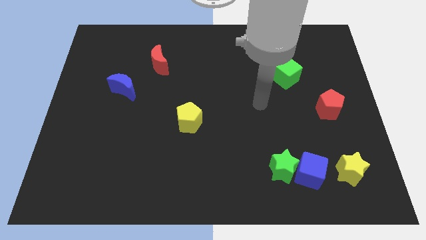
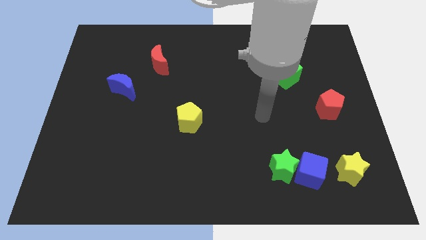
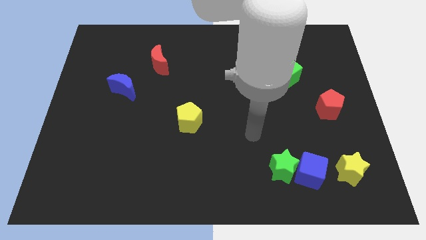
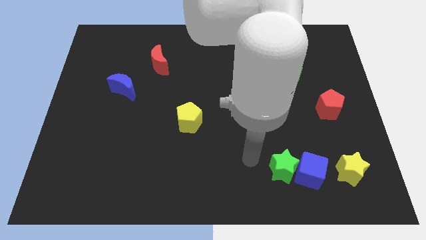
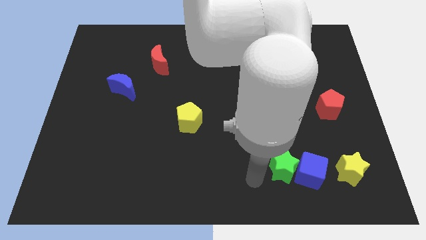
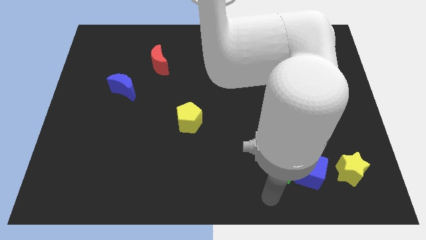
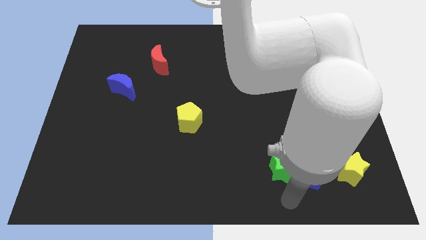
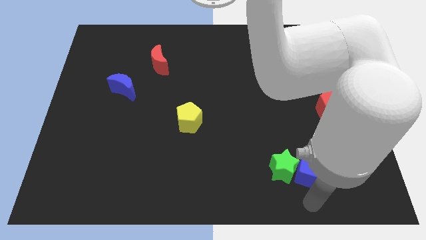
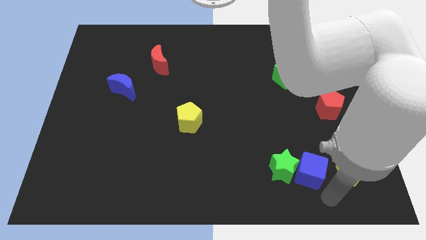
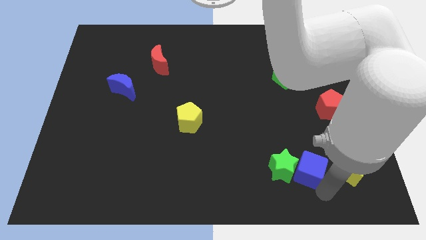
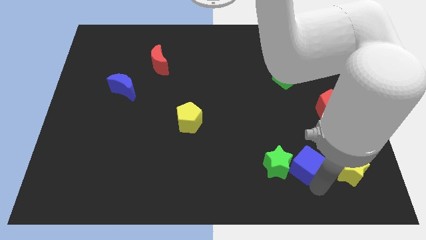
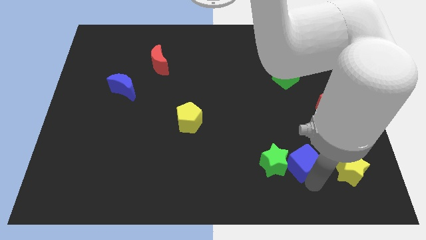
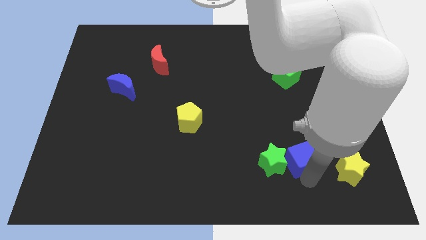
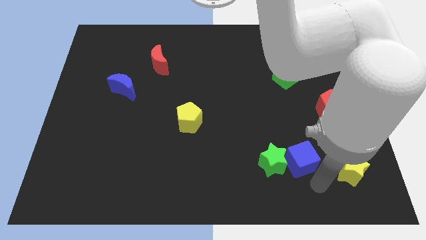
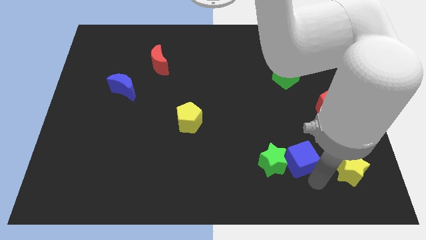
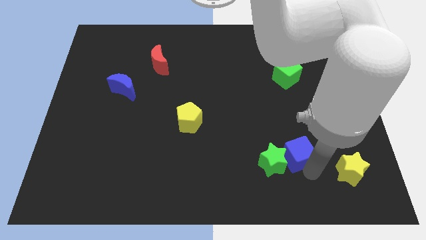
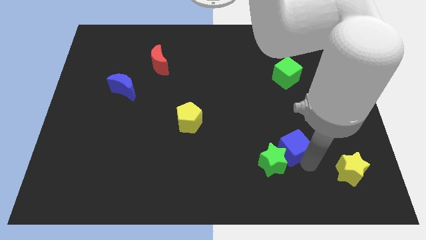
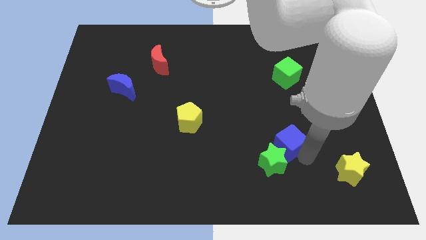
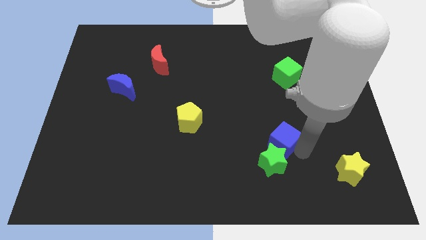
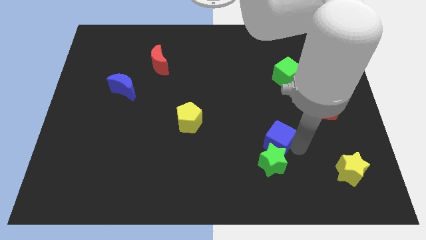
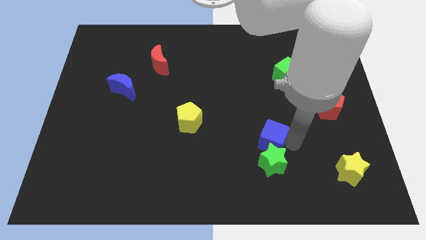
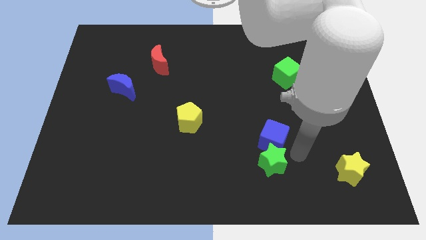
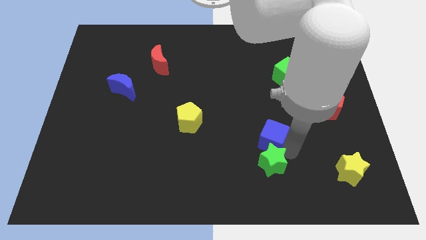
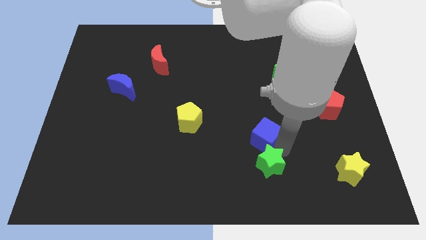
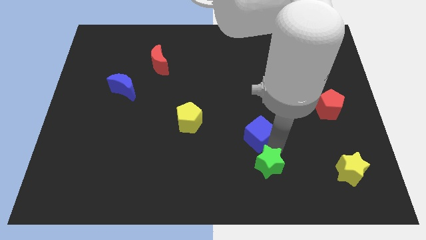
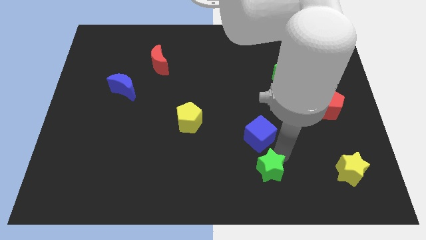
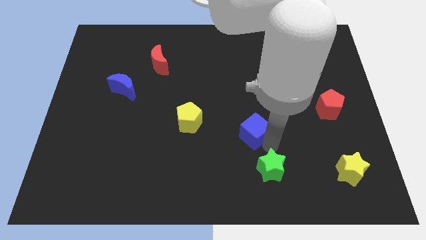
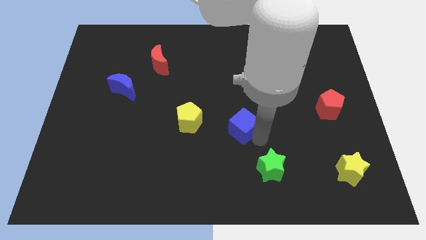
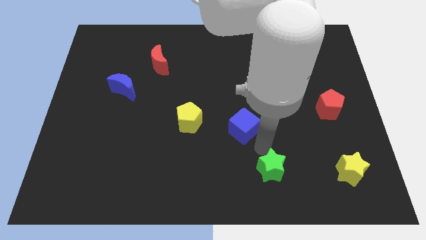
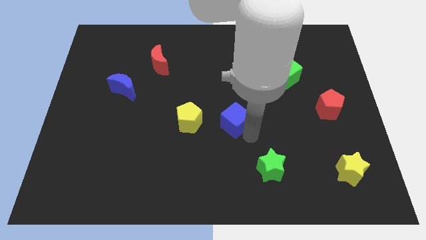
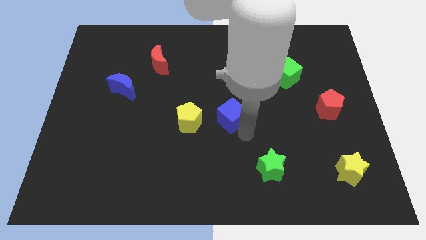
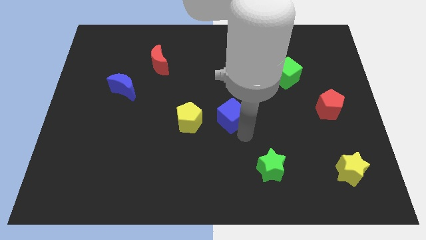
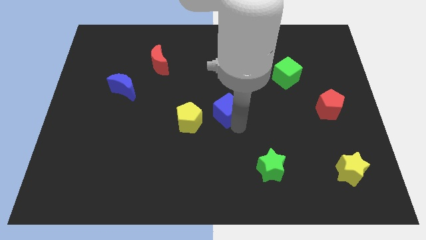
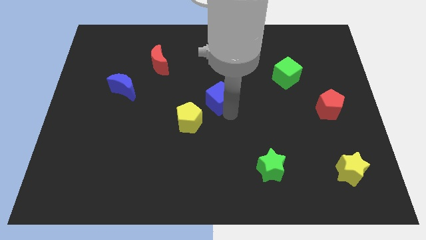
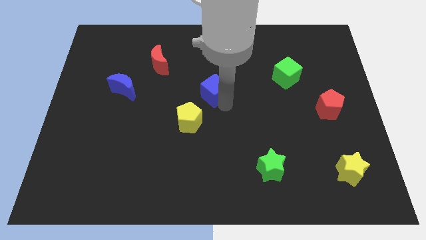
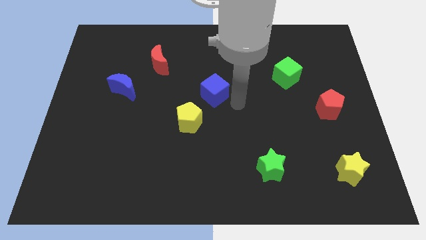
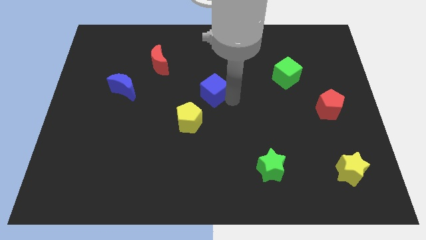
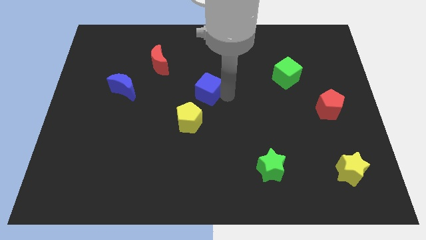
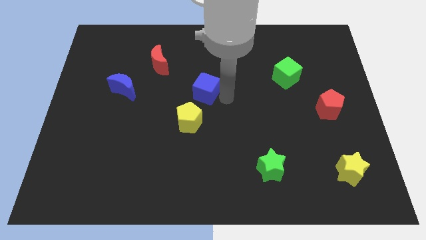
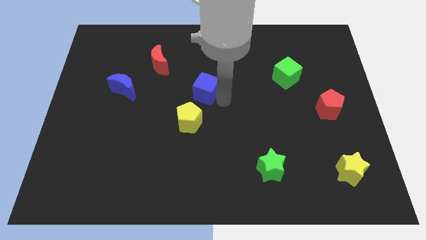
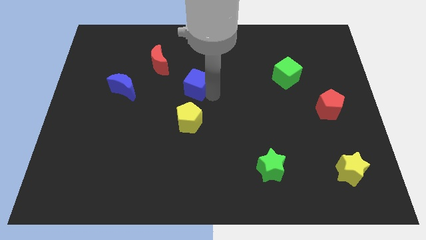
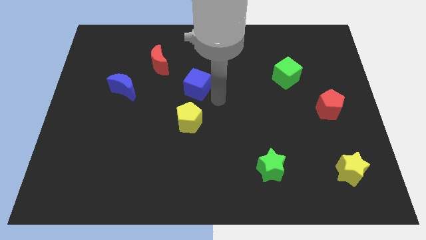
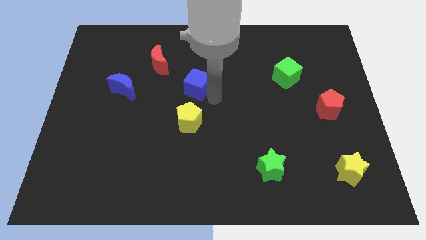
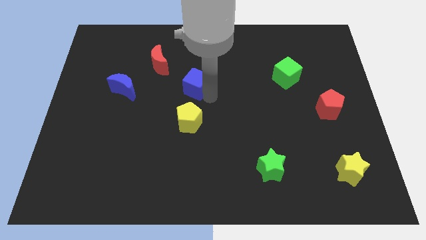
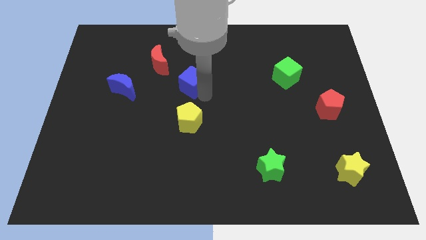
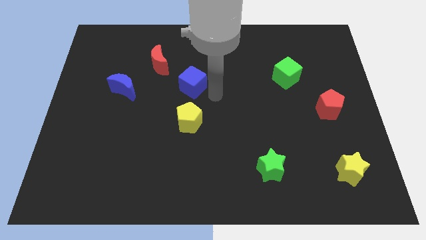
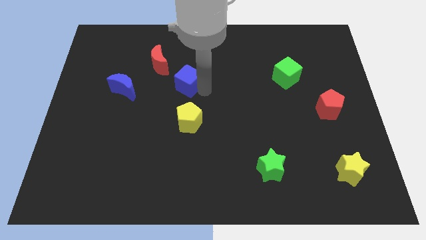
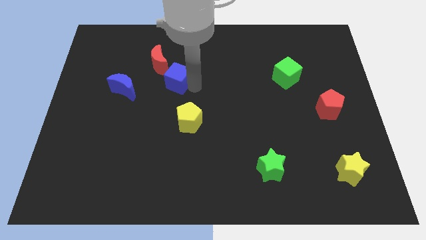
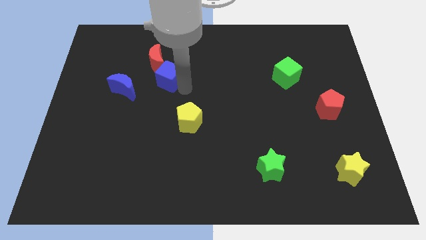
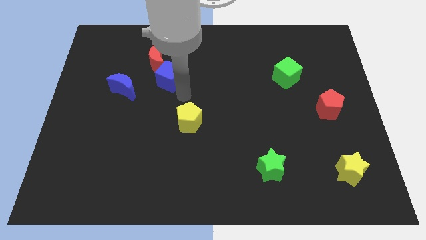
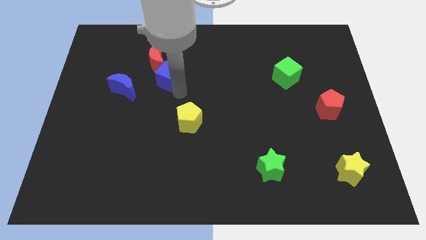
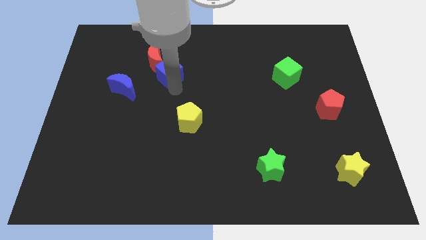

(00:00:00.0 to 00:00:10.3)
put the blue cube towards the red moon

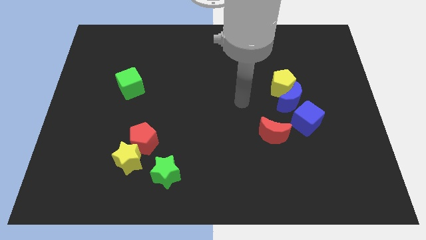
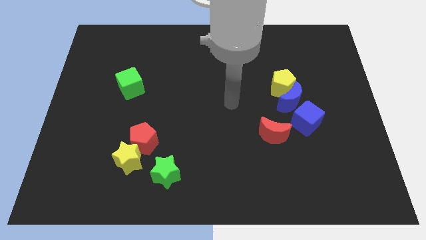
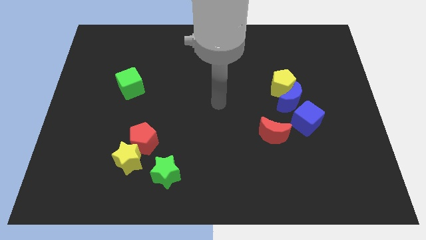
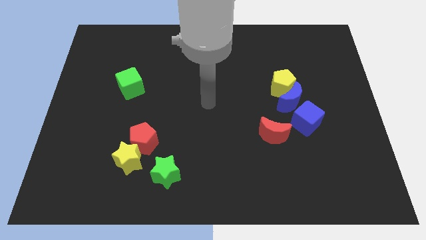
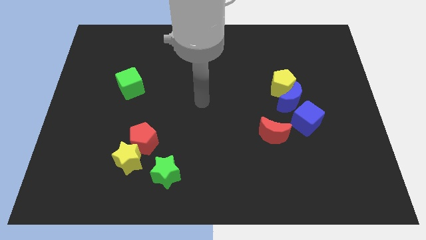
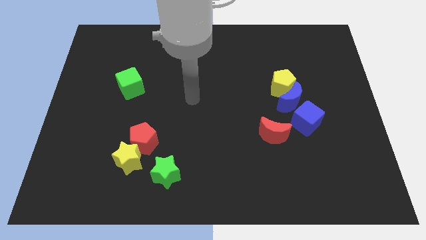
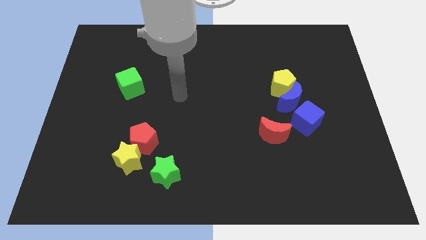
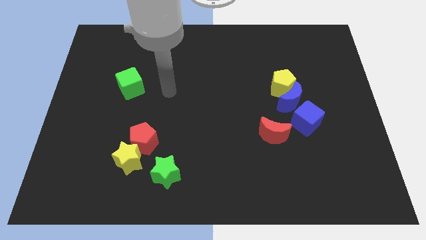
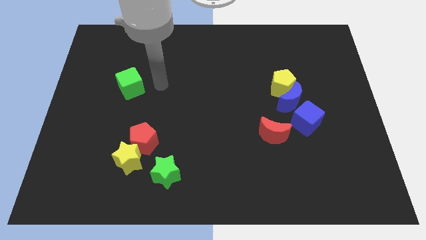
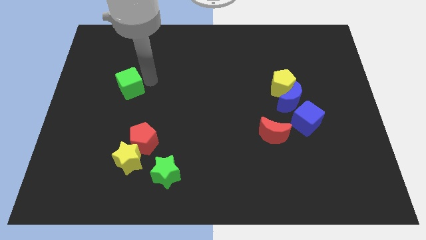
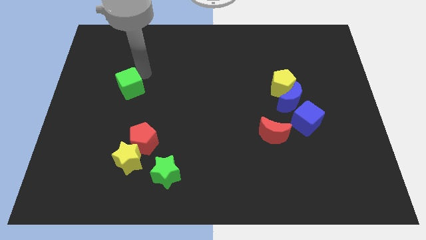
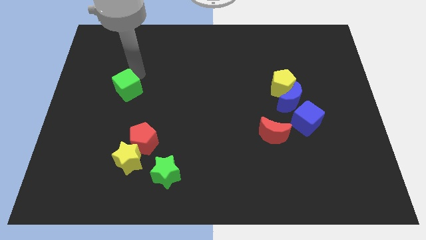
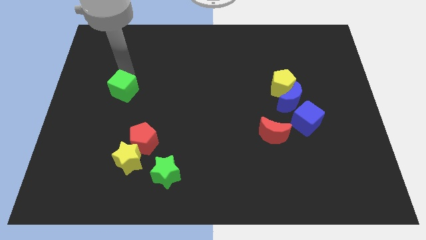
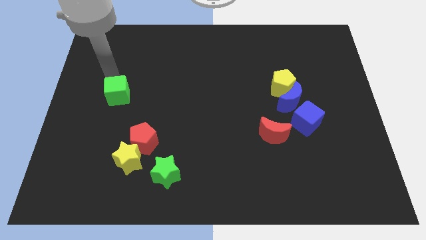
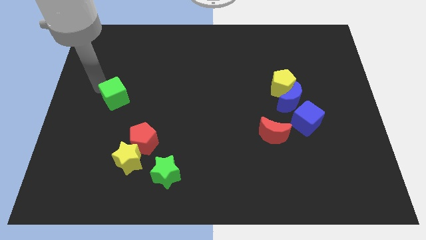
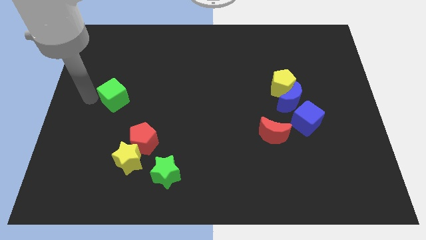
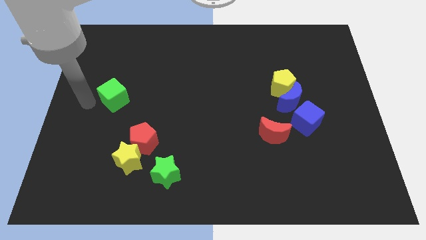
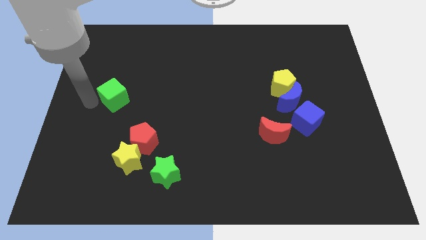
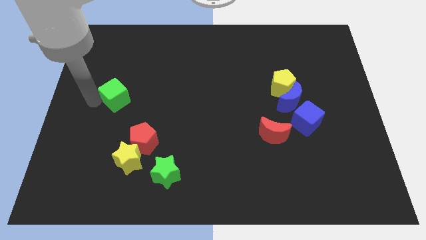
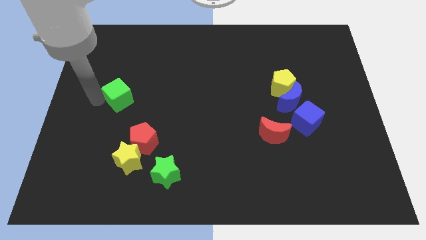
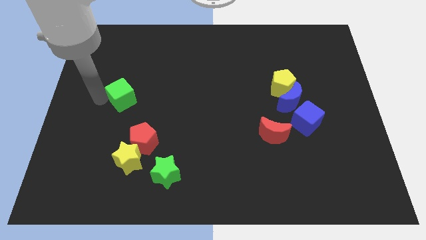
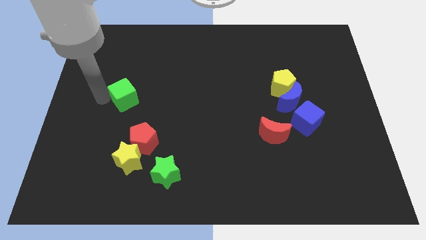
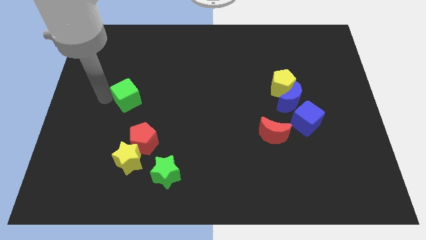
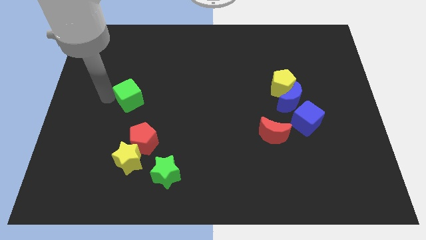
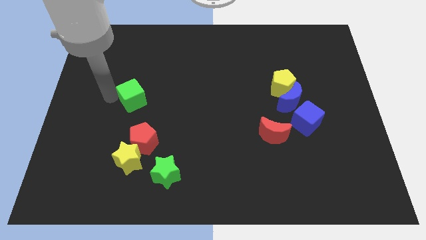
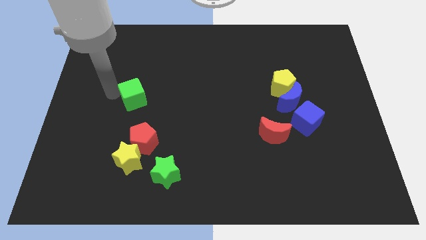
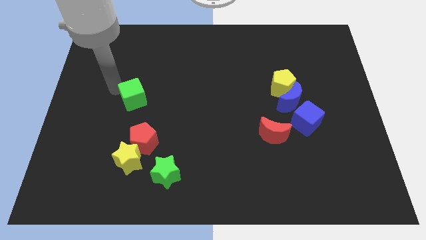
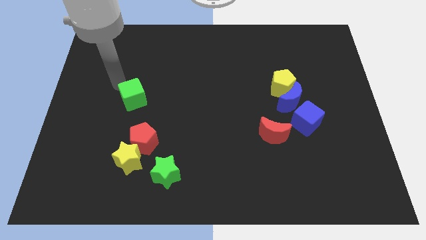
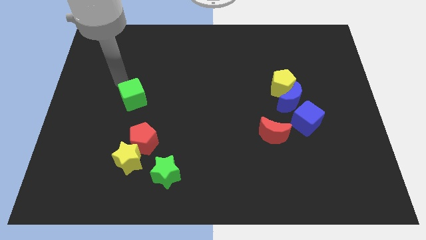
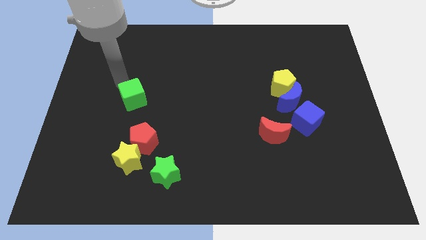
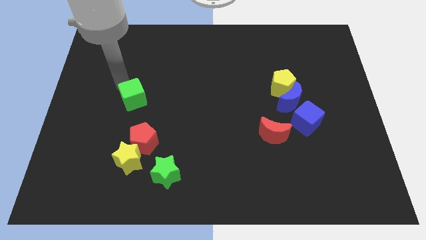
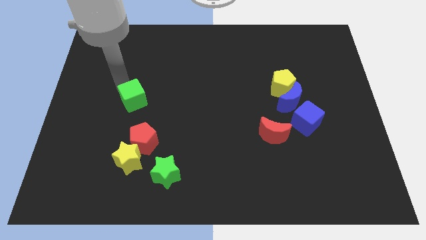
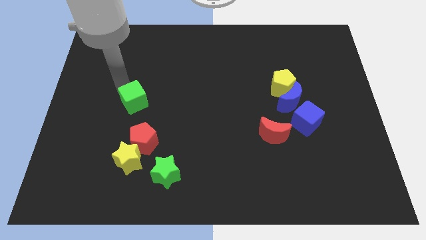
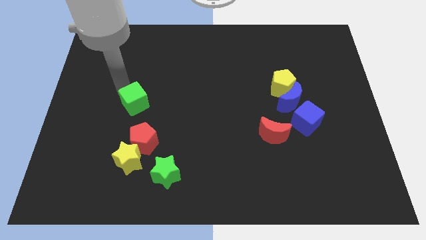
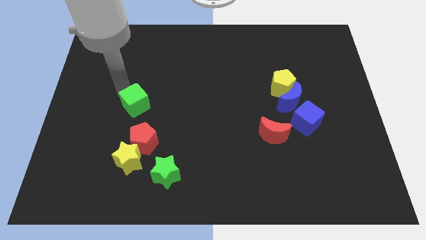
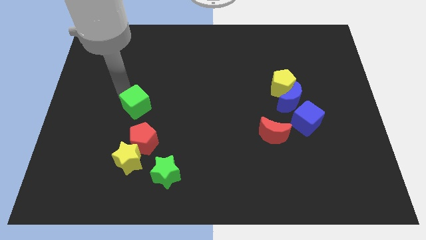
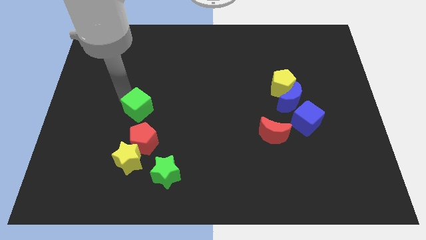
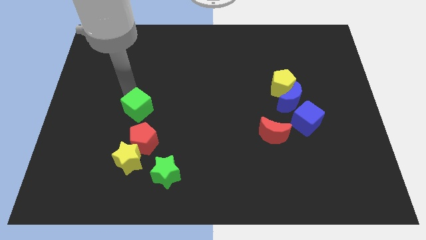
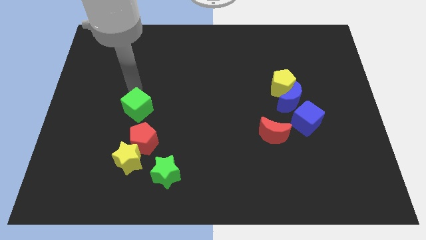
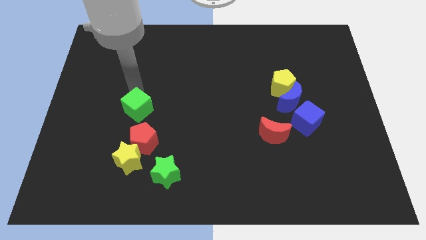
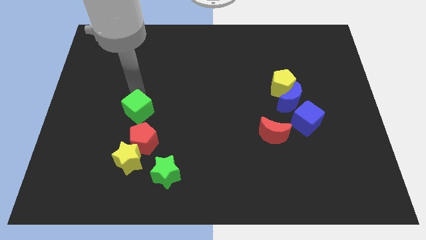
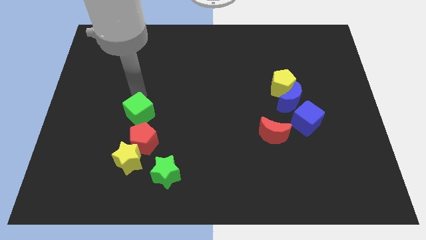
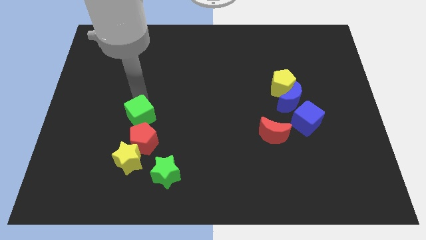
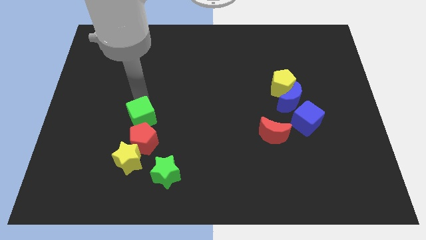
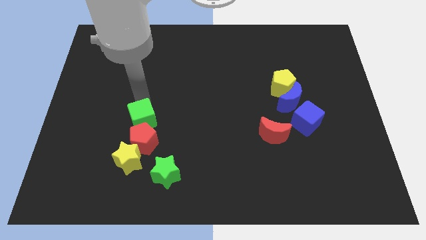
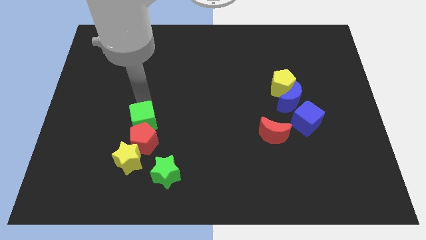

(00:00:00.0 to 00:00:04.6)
slide the green cube close to the red pentagon
